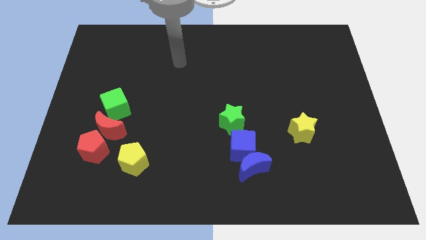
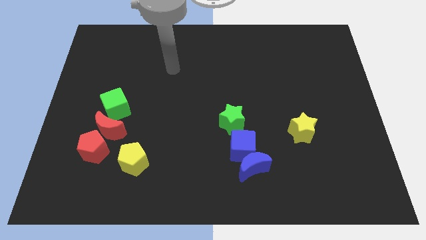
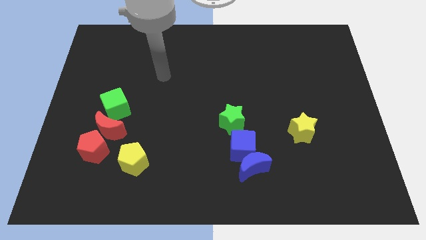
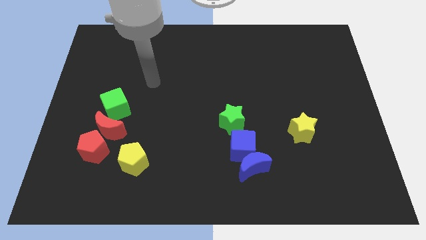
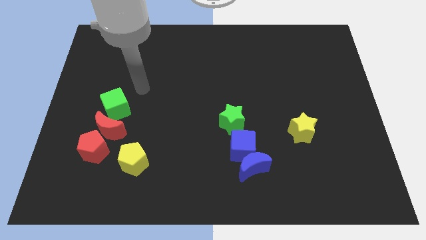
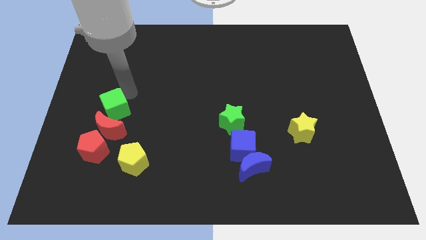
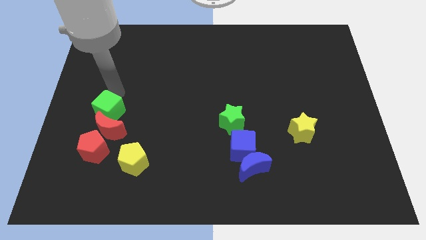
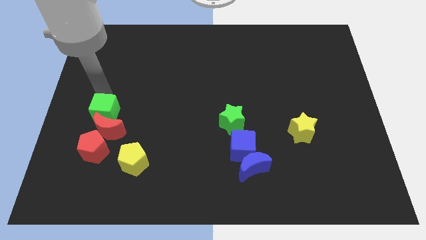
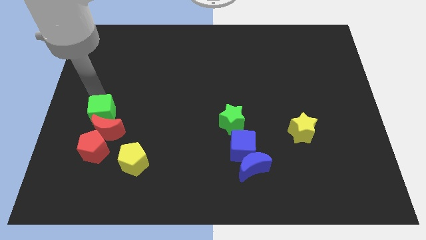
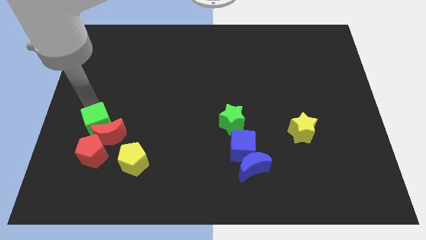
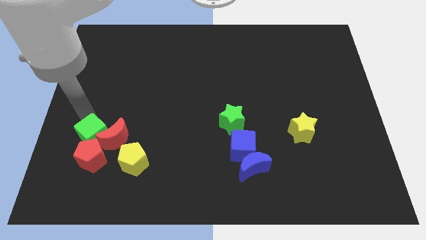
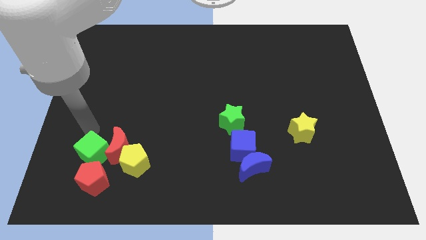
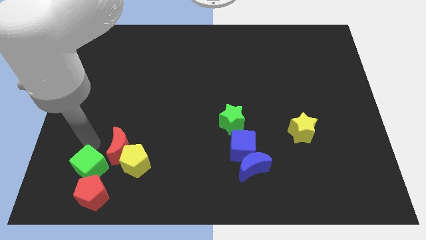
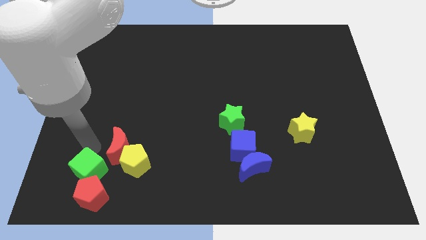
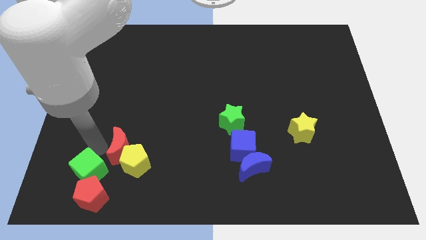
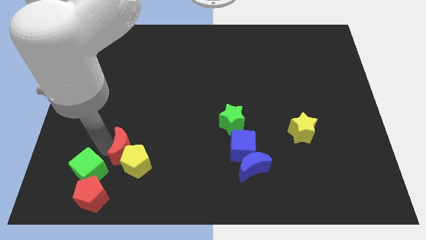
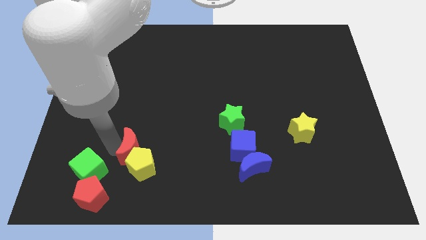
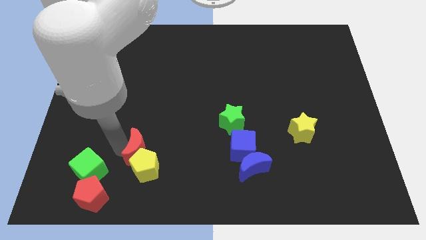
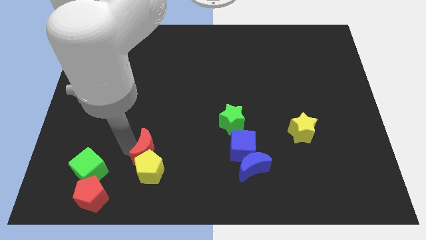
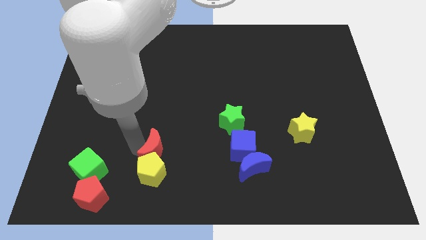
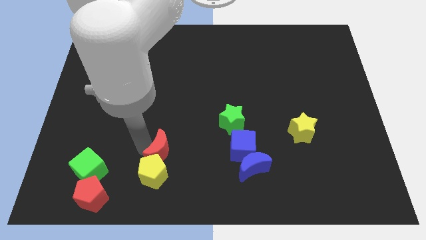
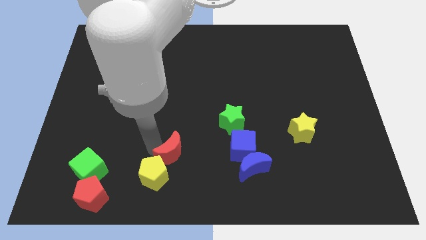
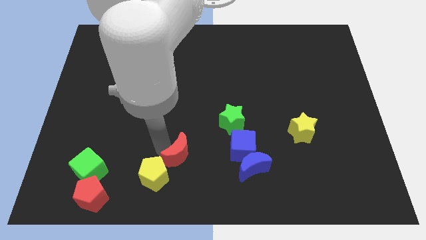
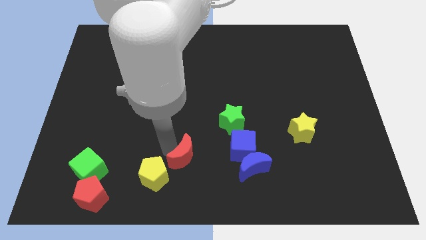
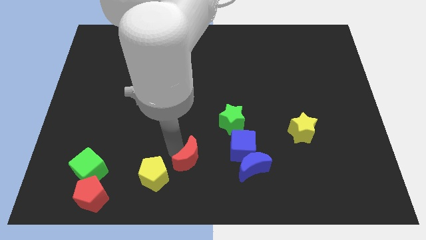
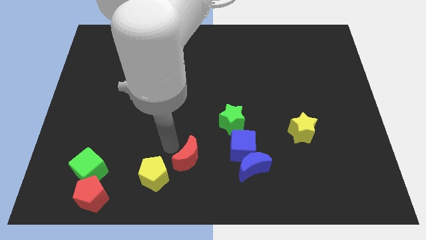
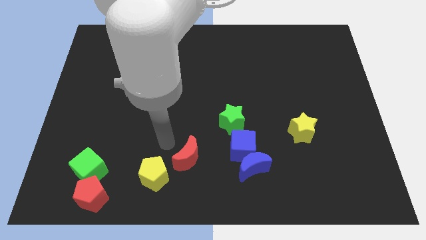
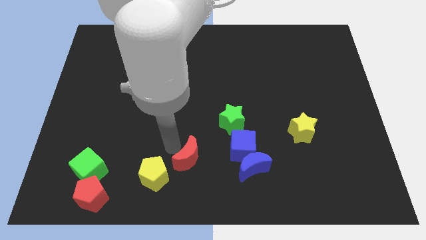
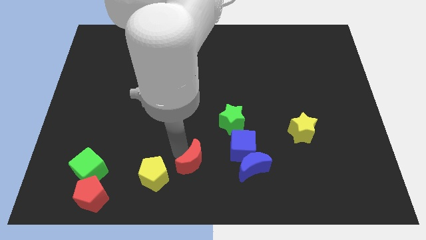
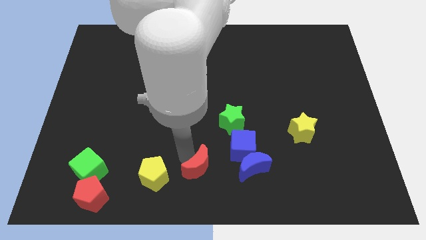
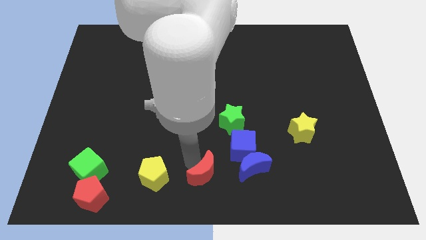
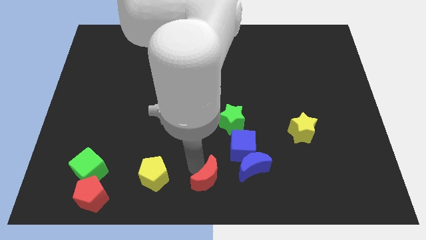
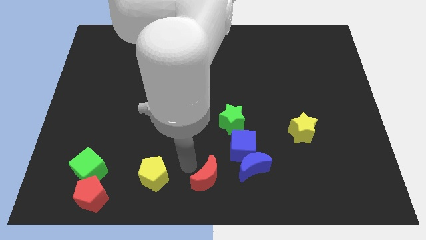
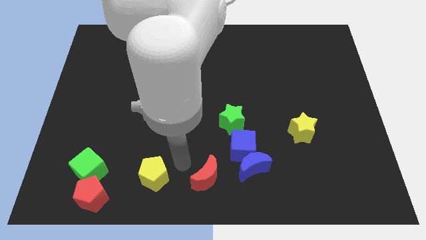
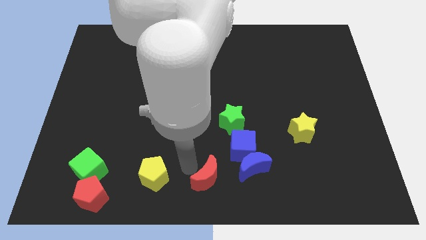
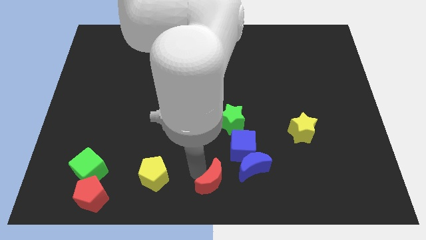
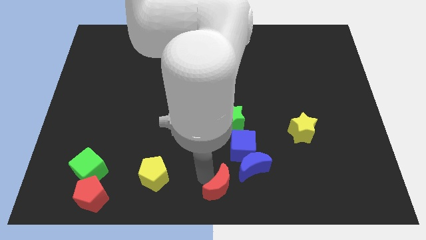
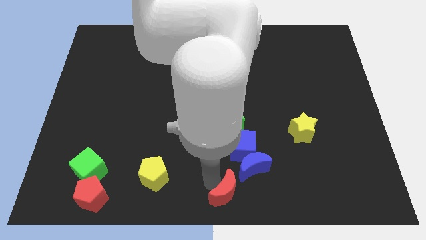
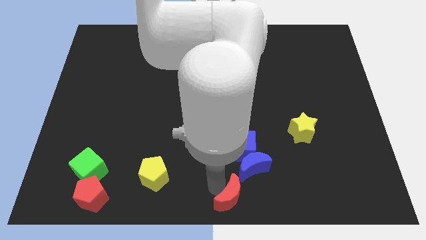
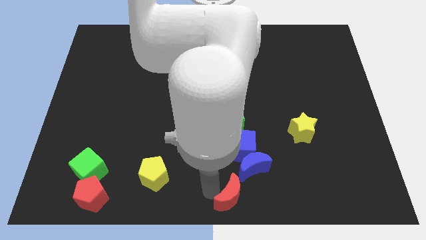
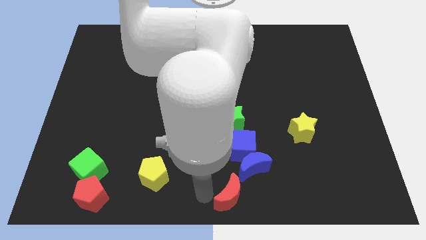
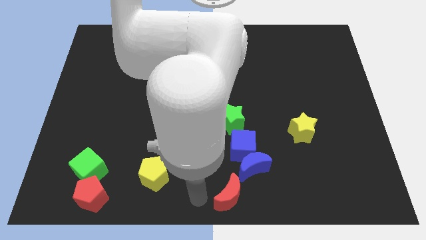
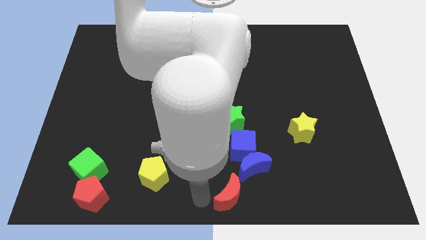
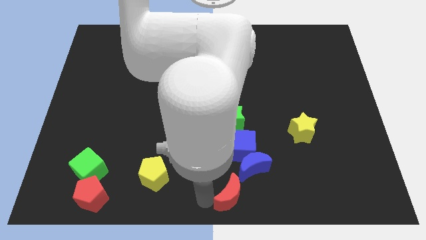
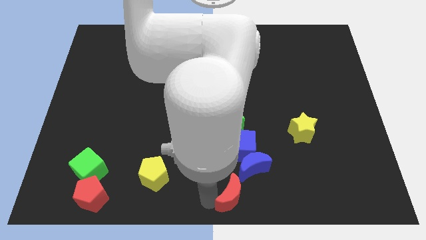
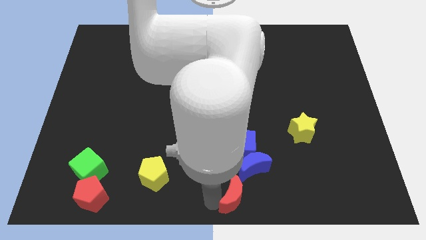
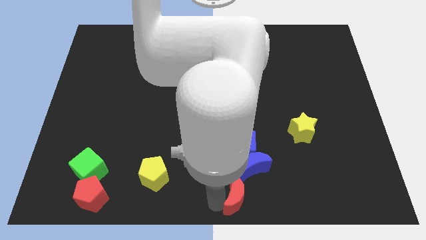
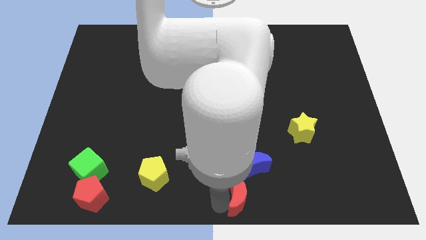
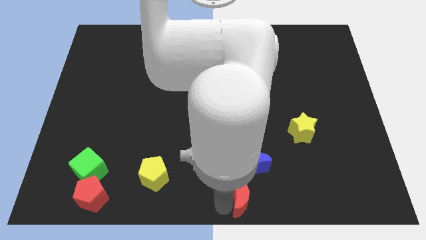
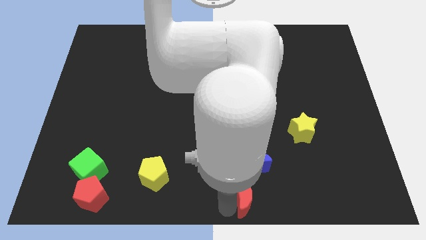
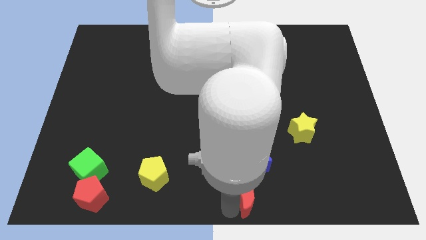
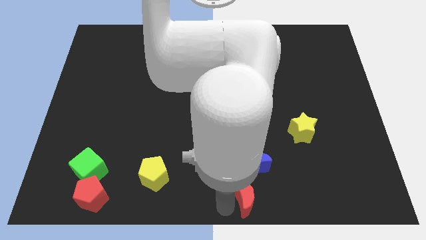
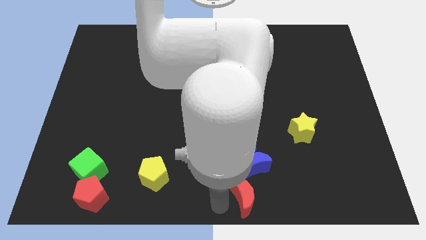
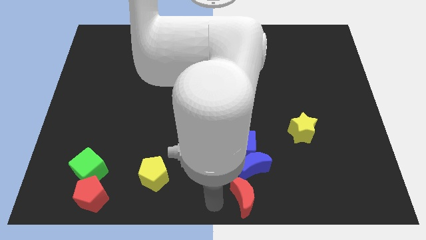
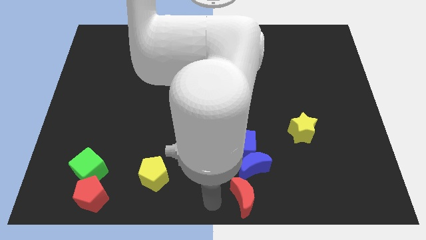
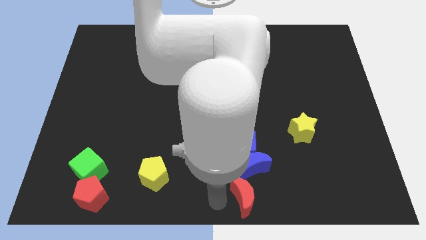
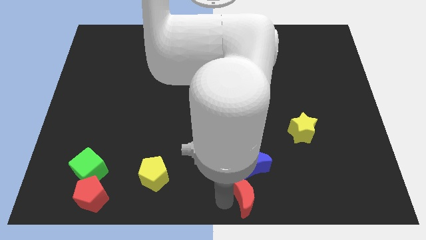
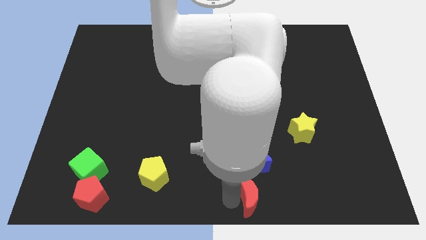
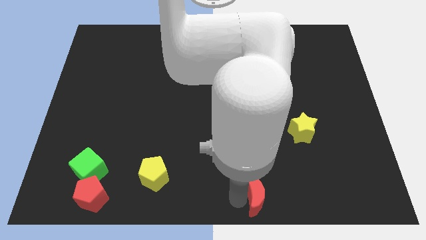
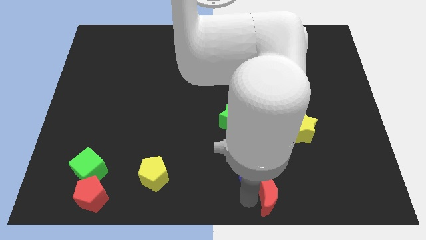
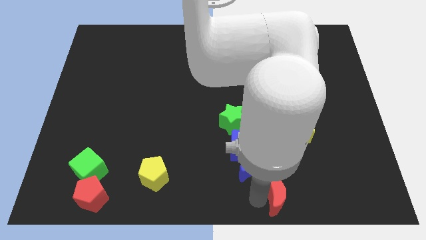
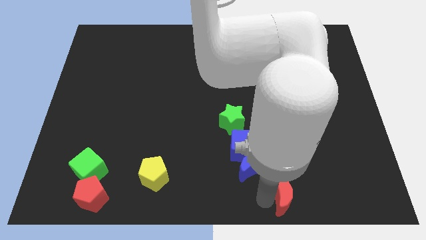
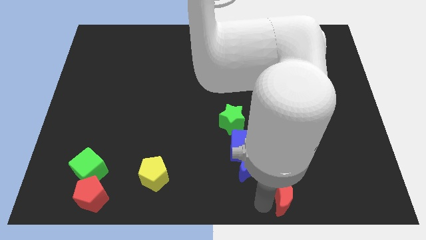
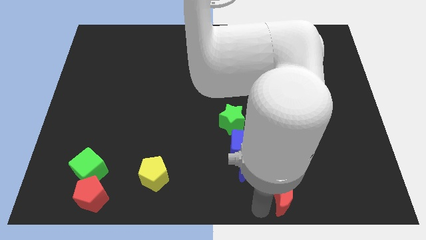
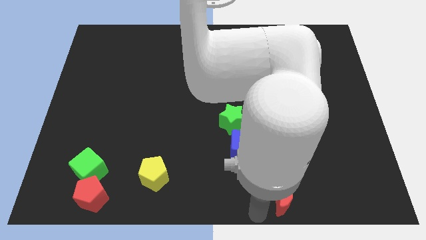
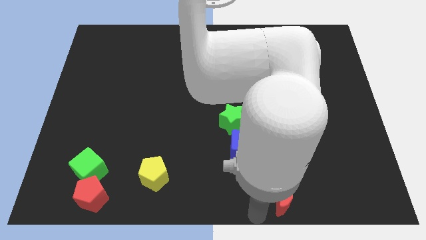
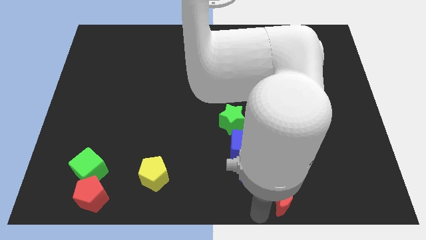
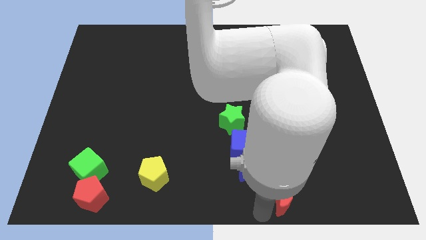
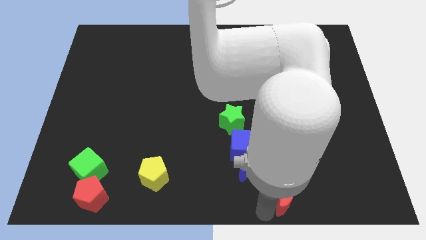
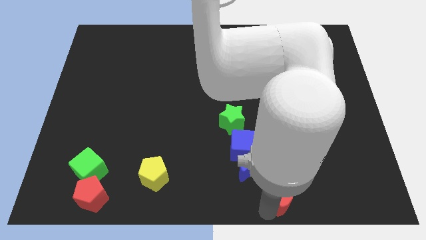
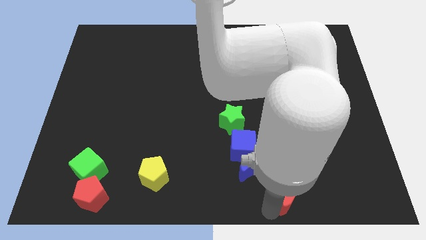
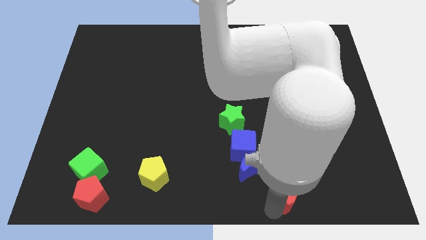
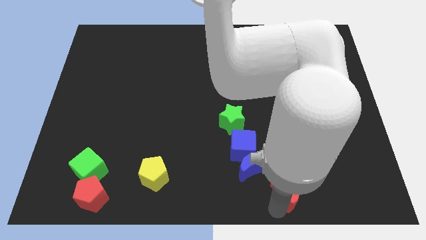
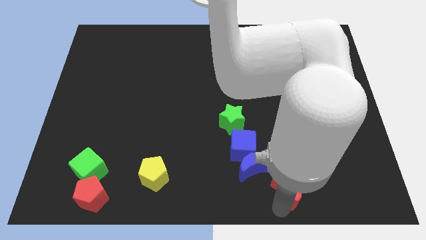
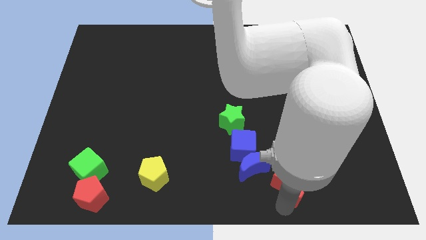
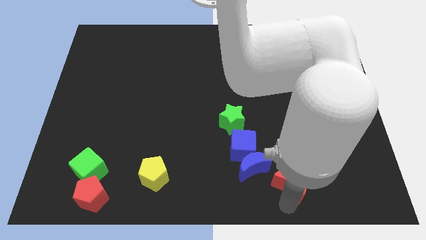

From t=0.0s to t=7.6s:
put the red moon below the yellow star
